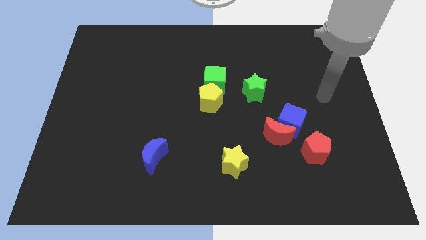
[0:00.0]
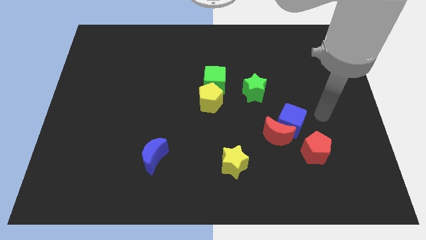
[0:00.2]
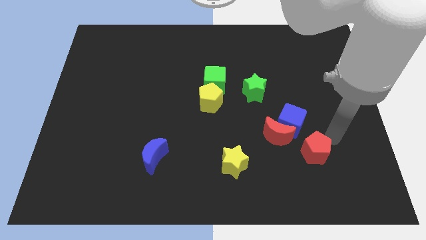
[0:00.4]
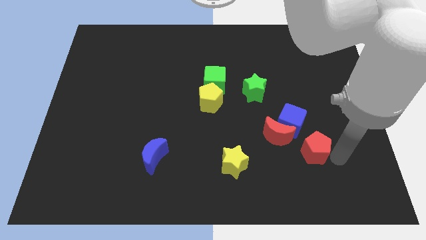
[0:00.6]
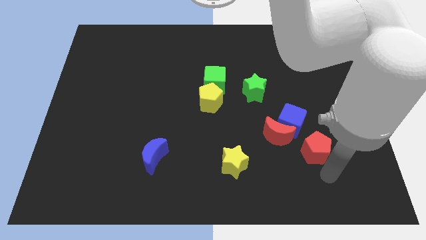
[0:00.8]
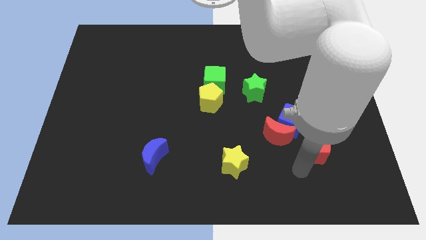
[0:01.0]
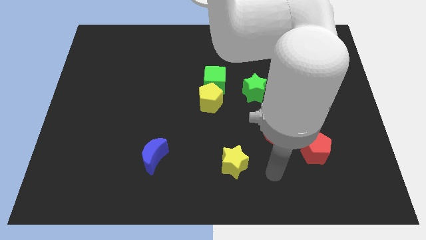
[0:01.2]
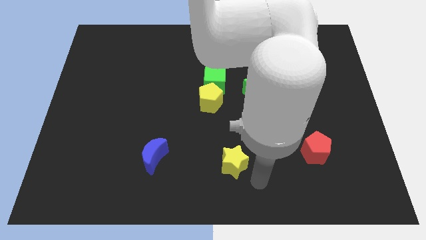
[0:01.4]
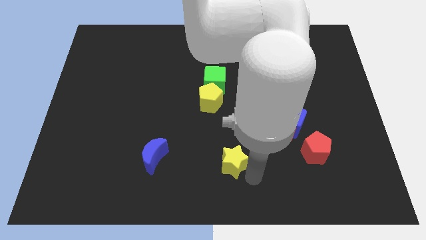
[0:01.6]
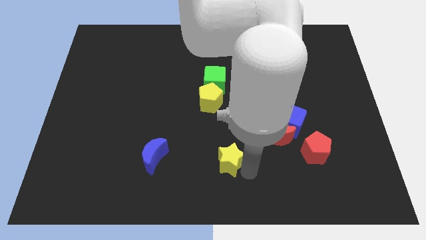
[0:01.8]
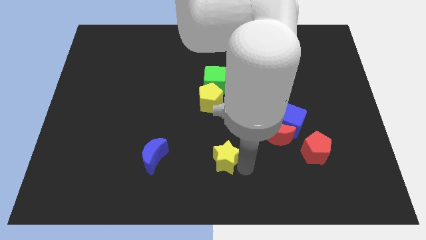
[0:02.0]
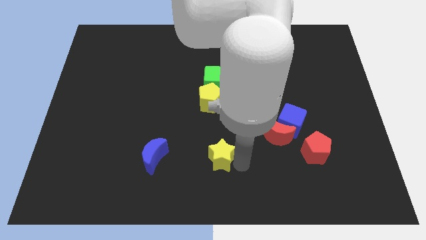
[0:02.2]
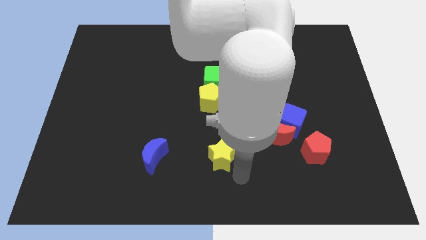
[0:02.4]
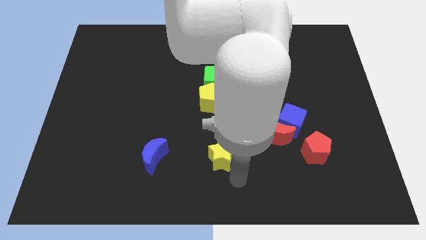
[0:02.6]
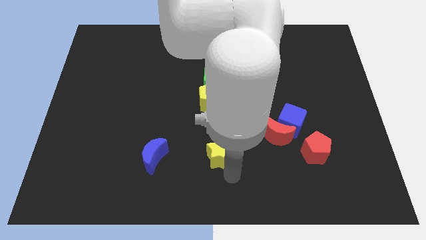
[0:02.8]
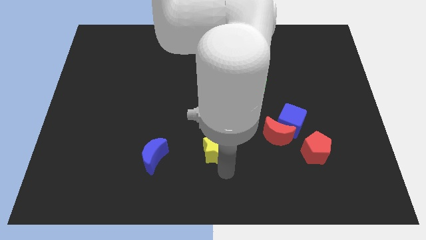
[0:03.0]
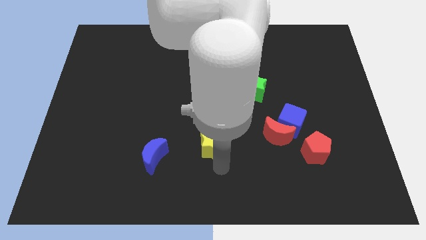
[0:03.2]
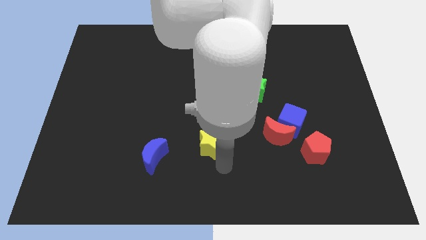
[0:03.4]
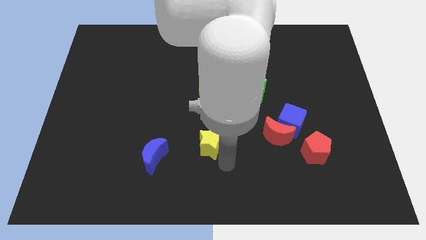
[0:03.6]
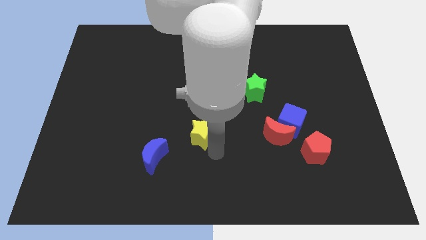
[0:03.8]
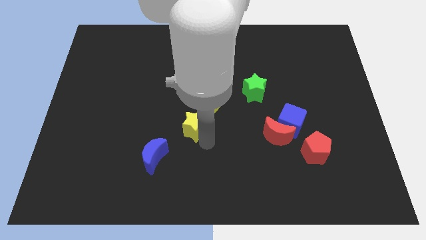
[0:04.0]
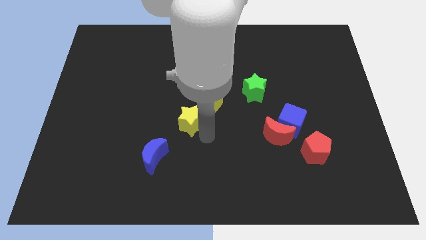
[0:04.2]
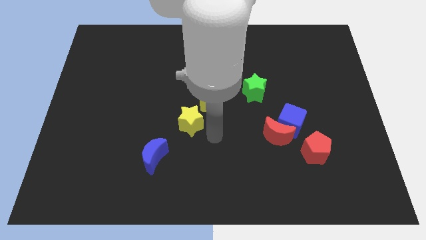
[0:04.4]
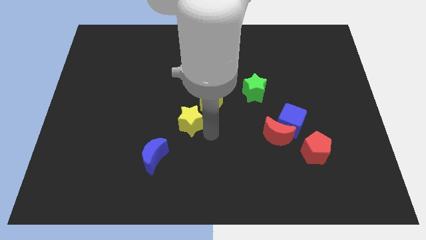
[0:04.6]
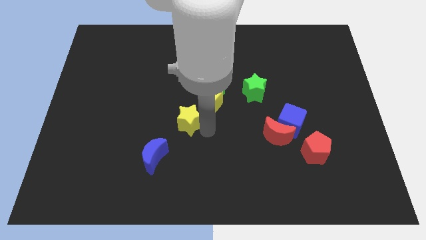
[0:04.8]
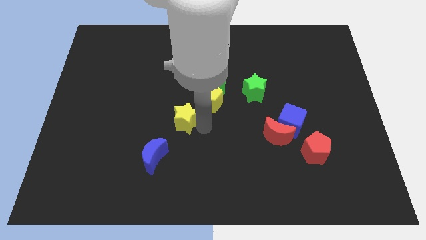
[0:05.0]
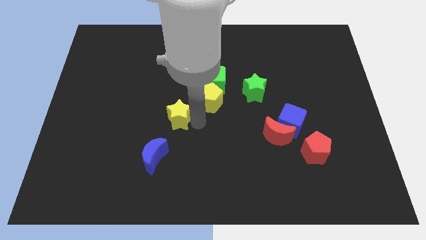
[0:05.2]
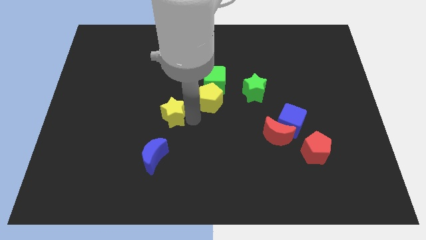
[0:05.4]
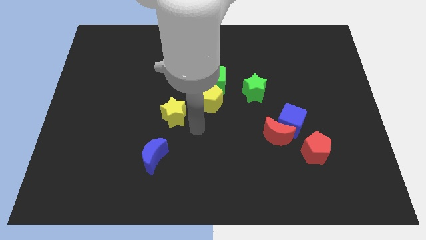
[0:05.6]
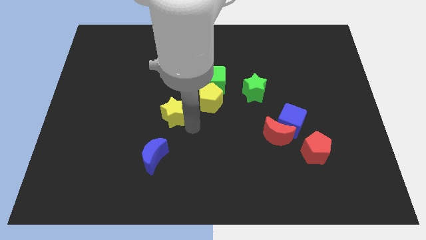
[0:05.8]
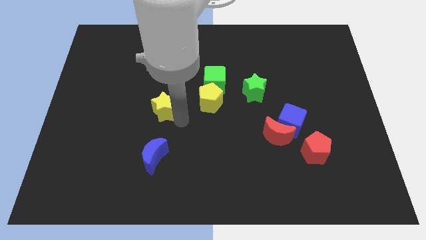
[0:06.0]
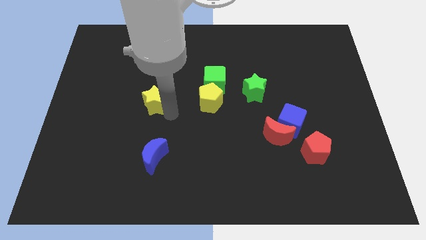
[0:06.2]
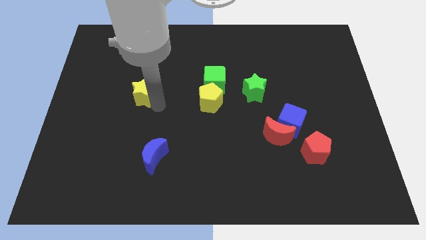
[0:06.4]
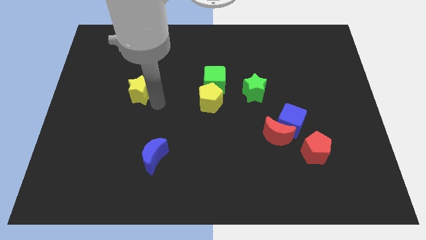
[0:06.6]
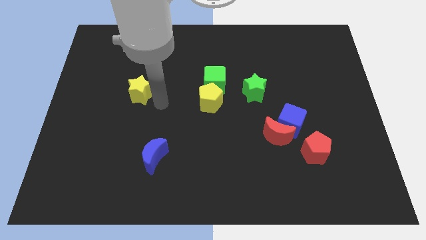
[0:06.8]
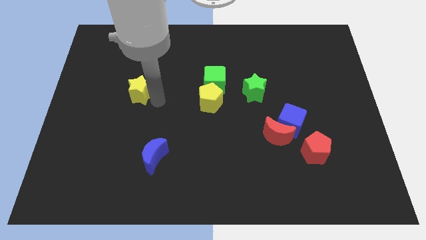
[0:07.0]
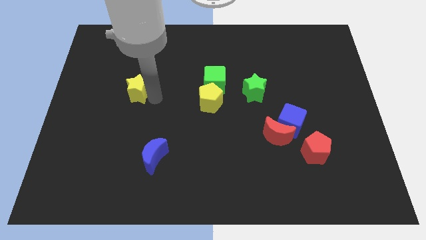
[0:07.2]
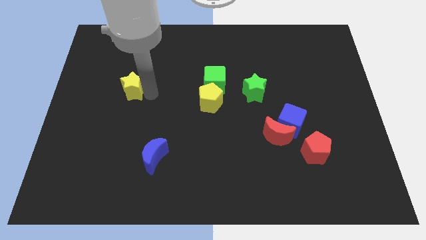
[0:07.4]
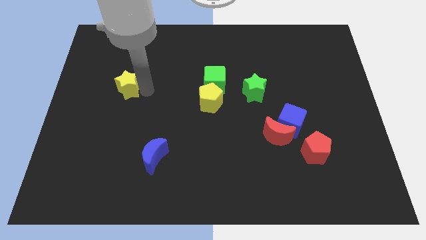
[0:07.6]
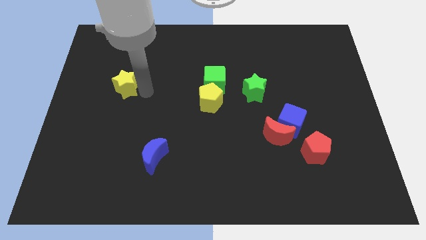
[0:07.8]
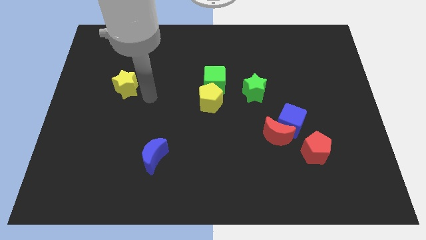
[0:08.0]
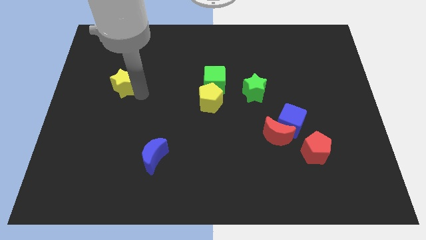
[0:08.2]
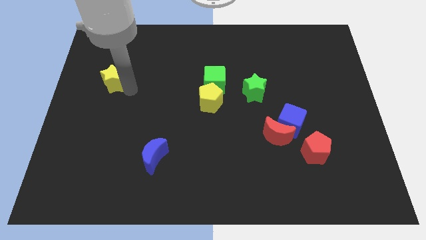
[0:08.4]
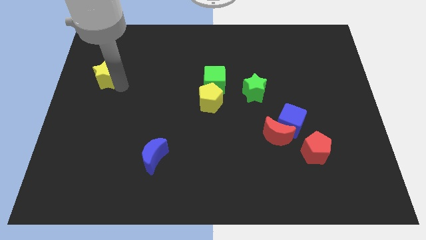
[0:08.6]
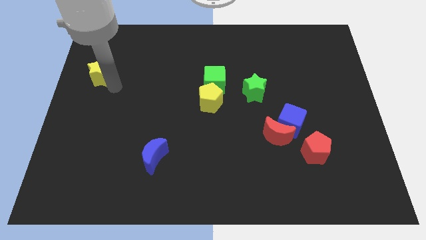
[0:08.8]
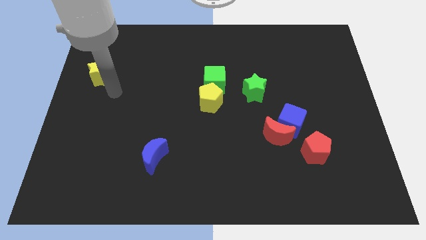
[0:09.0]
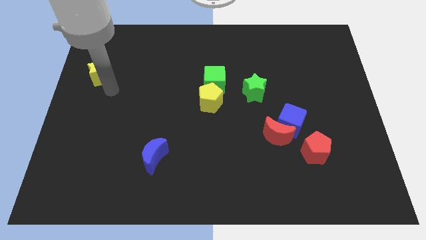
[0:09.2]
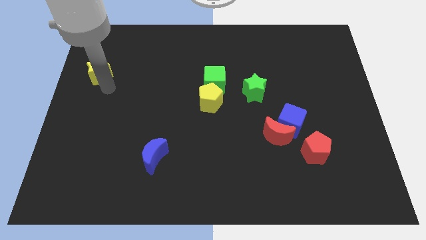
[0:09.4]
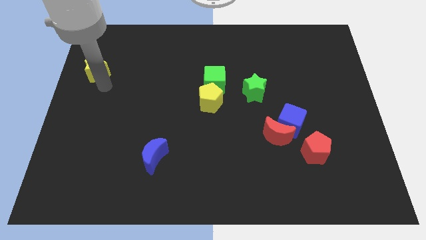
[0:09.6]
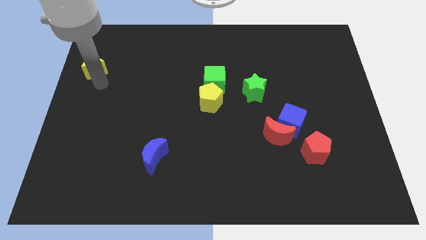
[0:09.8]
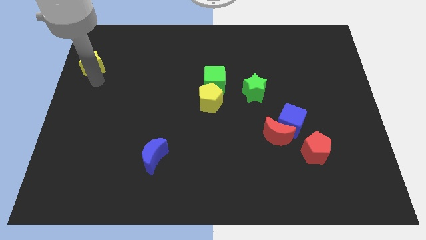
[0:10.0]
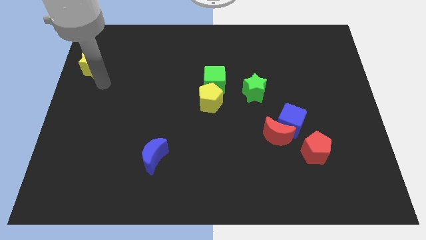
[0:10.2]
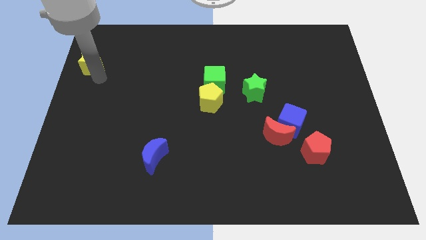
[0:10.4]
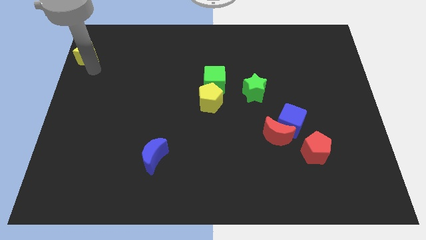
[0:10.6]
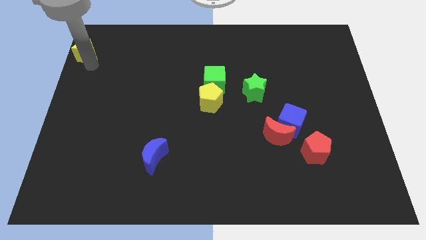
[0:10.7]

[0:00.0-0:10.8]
move the yellow star to the upper left corner

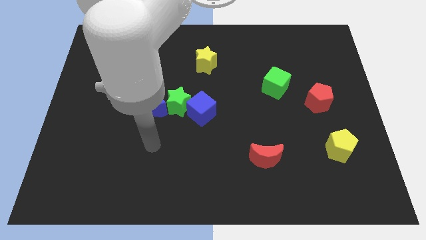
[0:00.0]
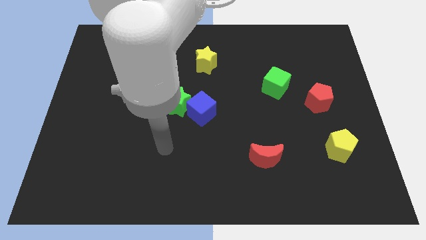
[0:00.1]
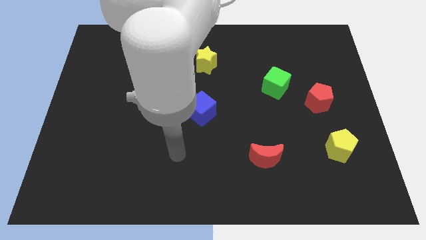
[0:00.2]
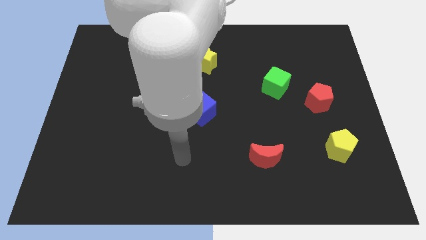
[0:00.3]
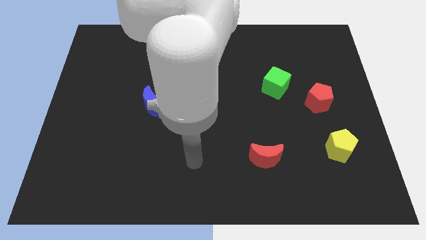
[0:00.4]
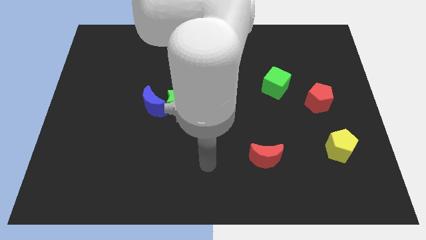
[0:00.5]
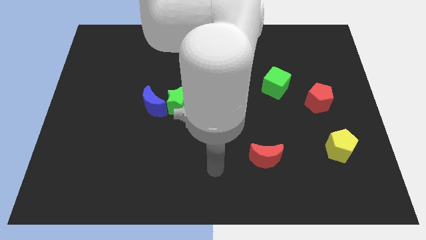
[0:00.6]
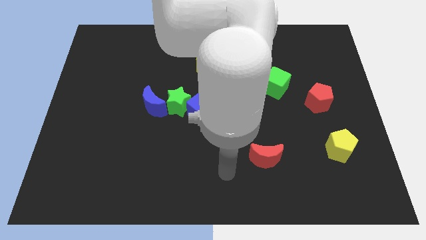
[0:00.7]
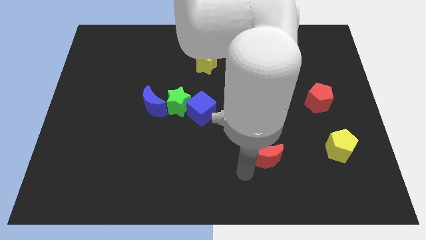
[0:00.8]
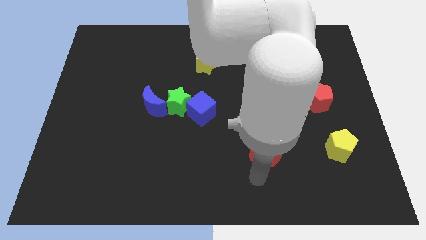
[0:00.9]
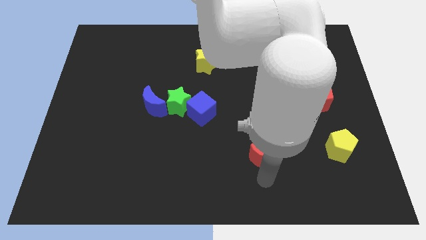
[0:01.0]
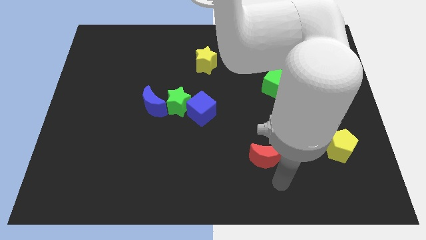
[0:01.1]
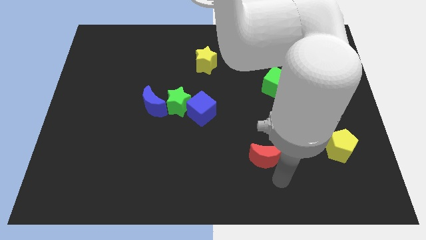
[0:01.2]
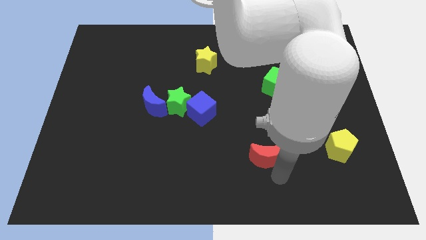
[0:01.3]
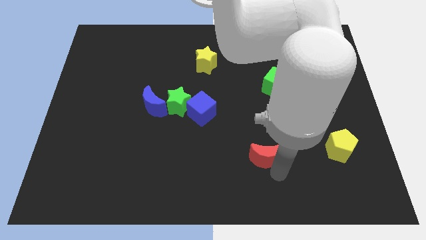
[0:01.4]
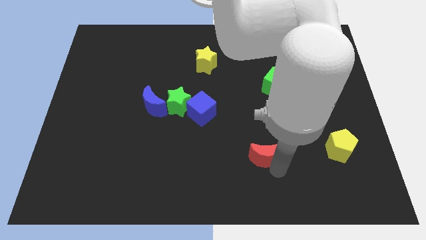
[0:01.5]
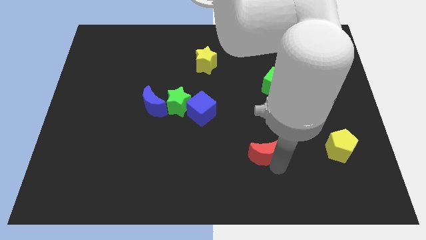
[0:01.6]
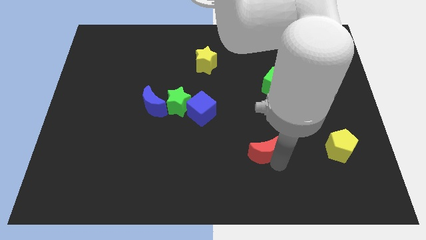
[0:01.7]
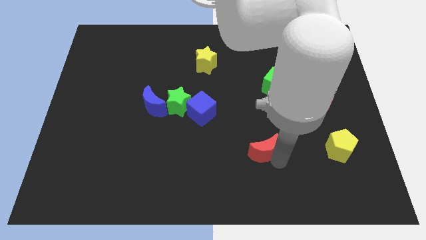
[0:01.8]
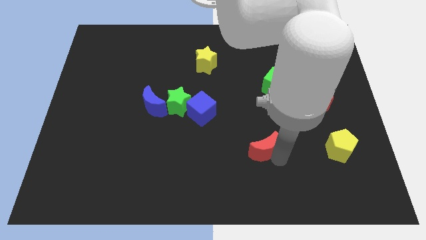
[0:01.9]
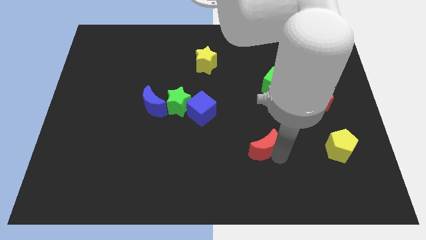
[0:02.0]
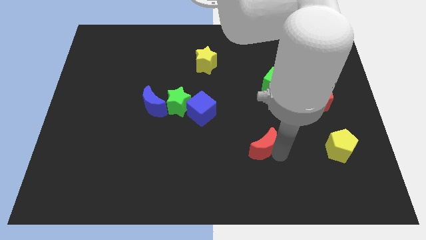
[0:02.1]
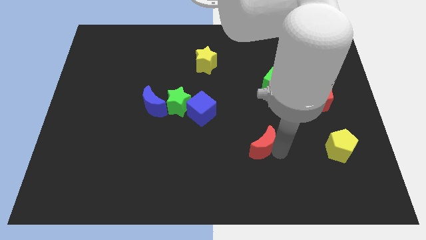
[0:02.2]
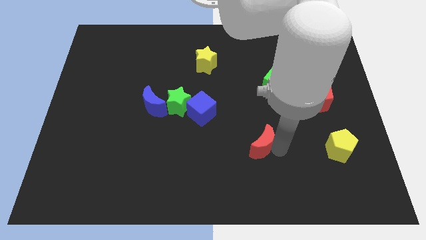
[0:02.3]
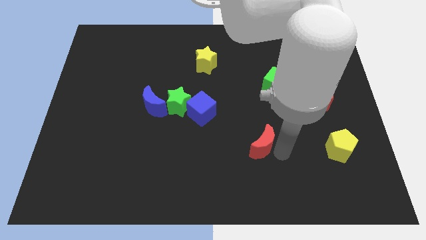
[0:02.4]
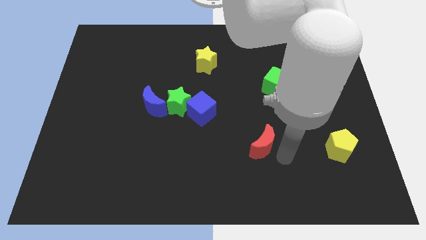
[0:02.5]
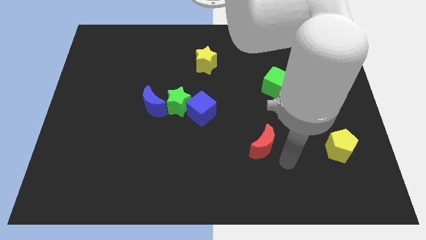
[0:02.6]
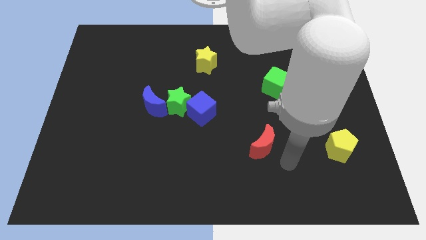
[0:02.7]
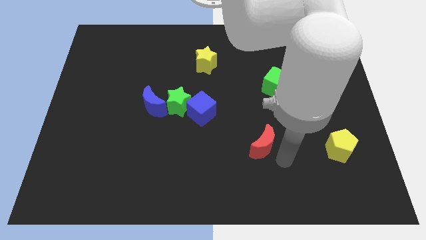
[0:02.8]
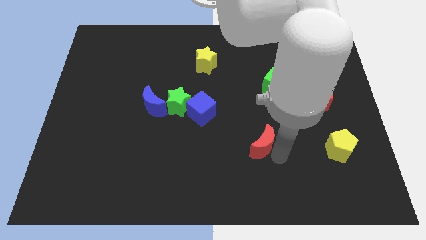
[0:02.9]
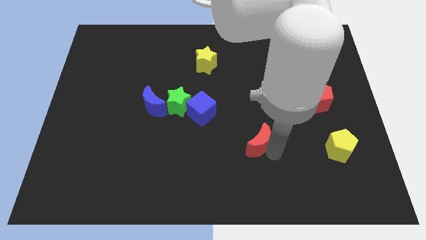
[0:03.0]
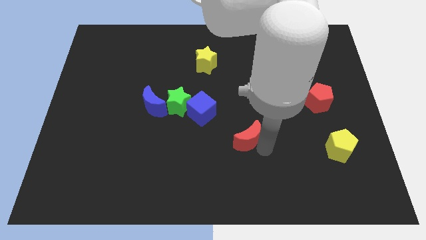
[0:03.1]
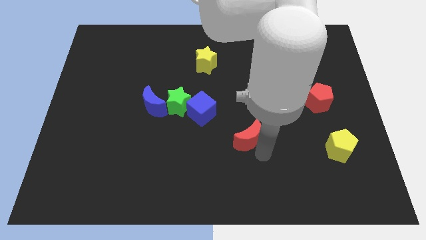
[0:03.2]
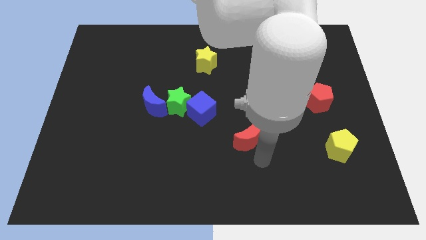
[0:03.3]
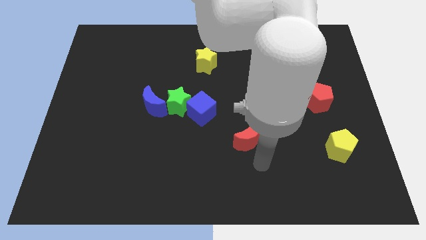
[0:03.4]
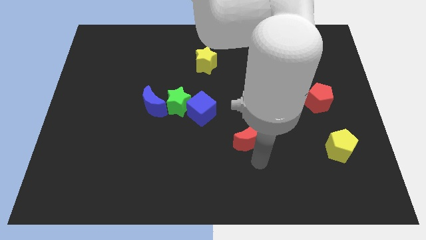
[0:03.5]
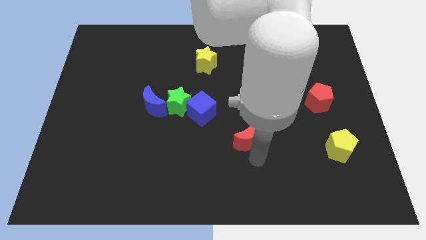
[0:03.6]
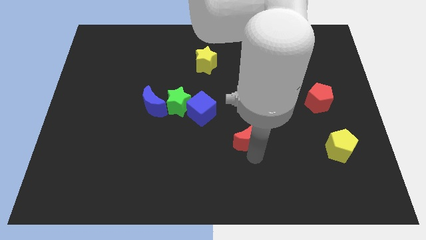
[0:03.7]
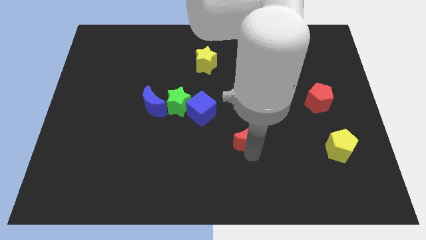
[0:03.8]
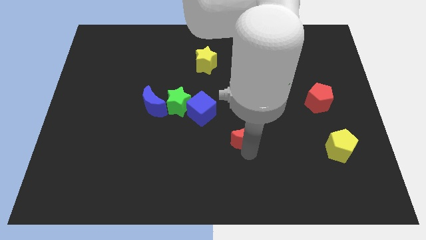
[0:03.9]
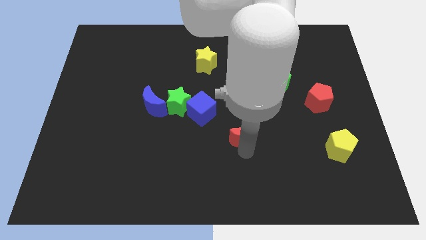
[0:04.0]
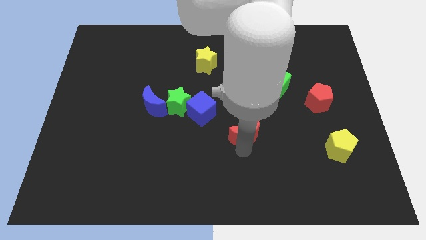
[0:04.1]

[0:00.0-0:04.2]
move the red moon to the center
